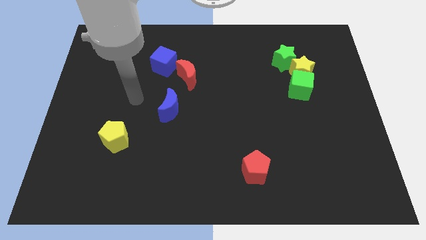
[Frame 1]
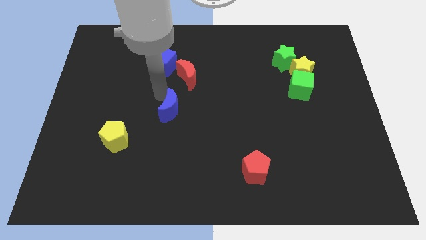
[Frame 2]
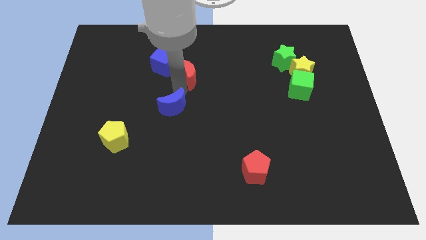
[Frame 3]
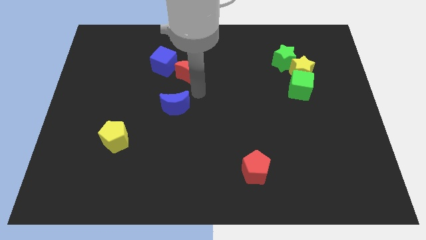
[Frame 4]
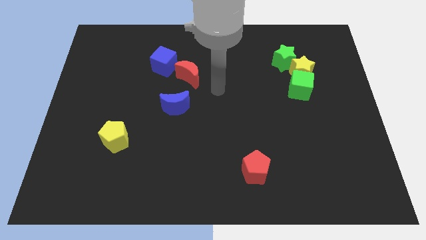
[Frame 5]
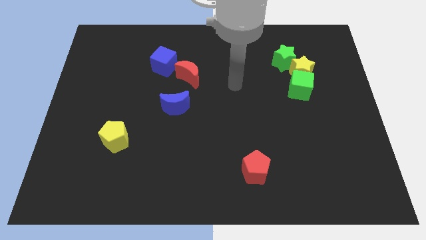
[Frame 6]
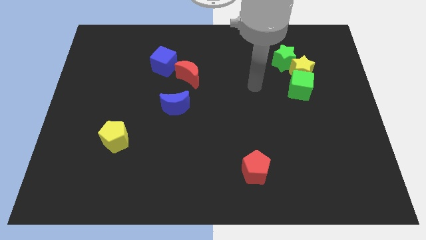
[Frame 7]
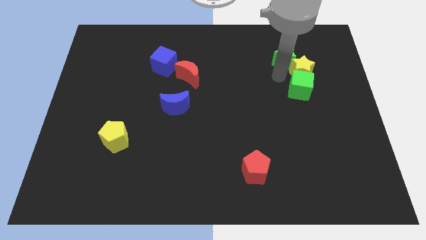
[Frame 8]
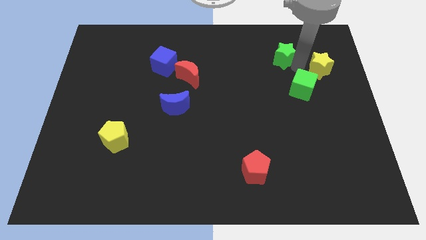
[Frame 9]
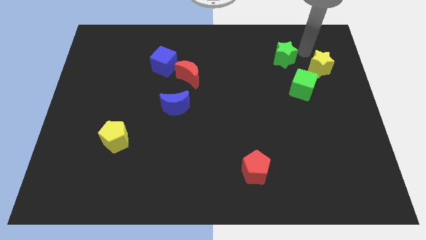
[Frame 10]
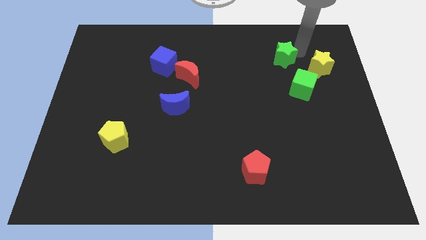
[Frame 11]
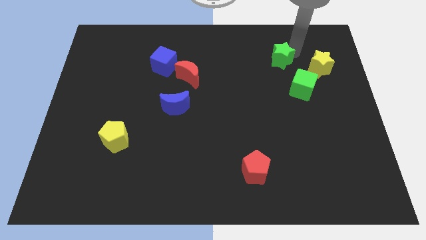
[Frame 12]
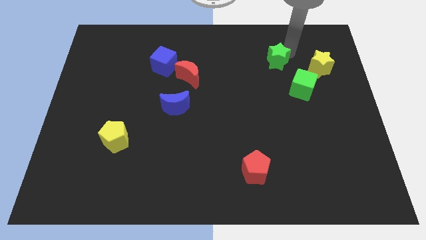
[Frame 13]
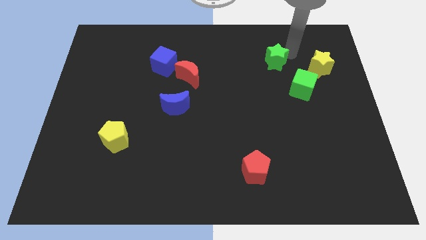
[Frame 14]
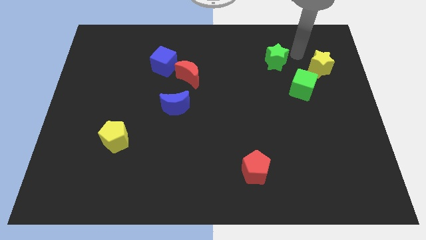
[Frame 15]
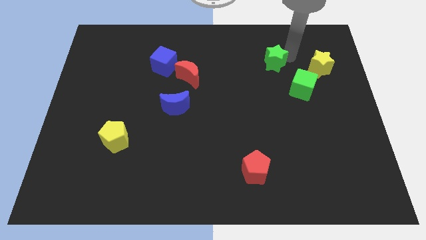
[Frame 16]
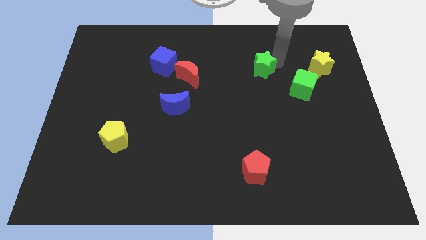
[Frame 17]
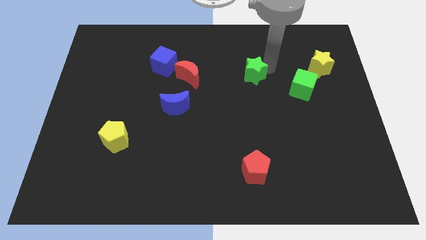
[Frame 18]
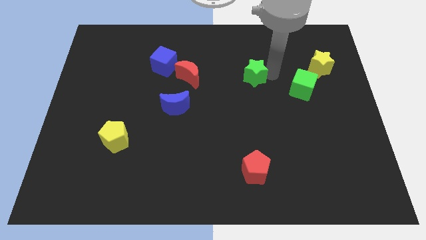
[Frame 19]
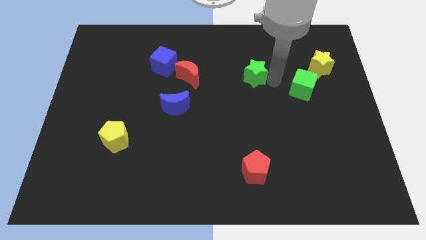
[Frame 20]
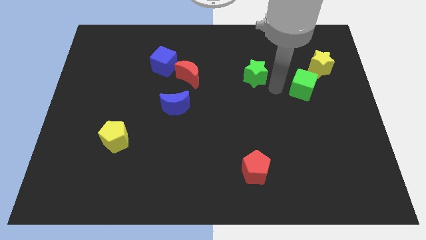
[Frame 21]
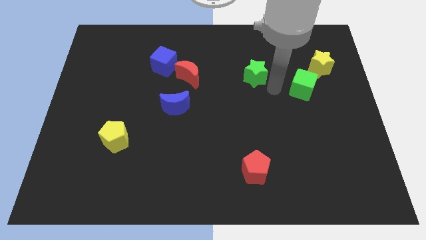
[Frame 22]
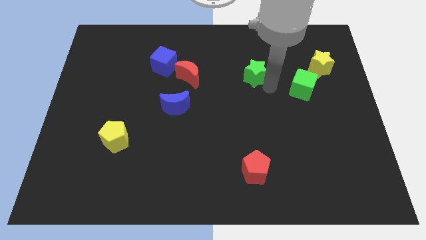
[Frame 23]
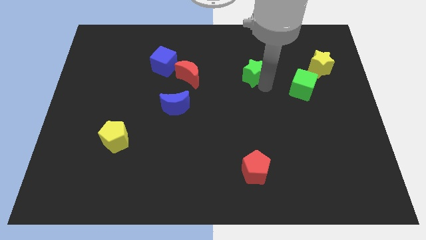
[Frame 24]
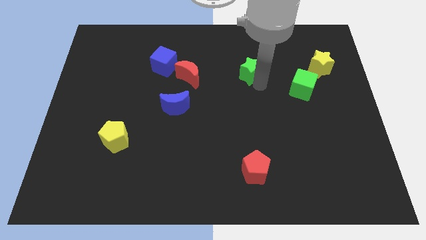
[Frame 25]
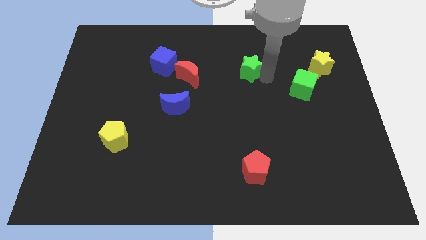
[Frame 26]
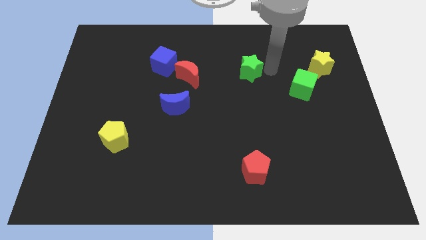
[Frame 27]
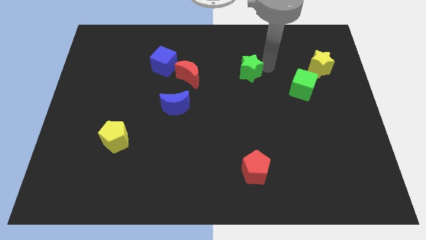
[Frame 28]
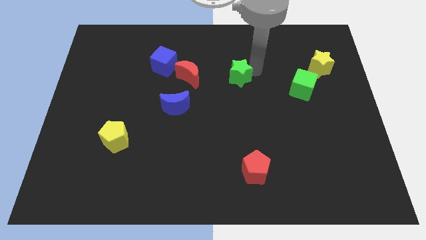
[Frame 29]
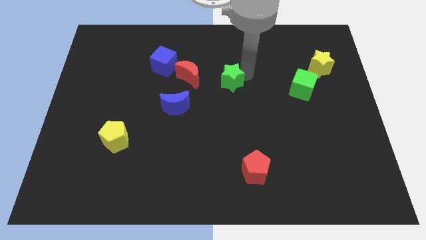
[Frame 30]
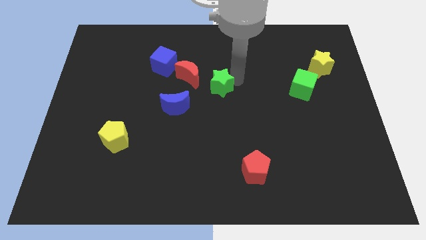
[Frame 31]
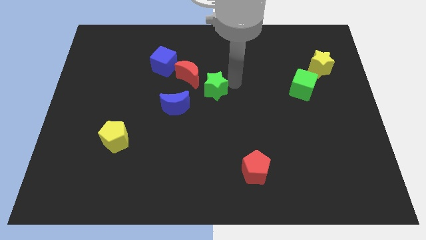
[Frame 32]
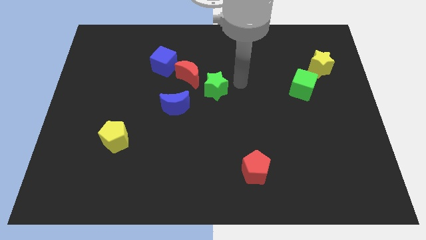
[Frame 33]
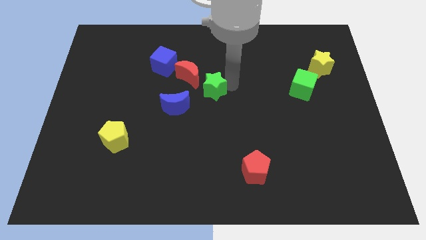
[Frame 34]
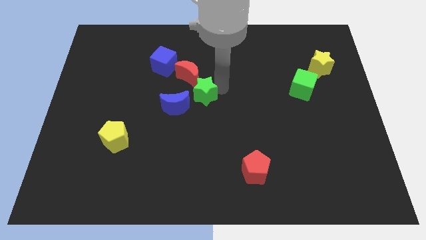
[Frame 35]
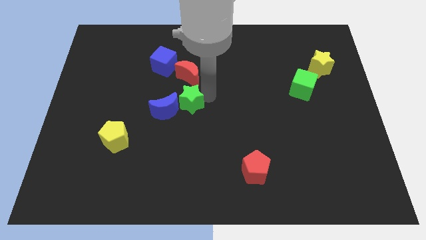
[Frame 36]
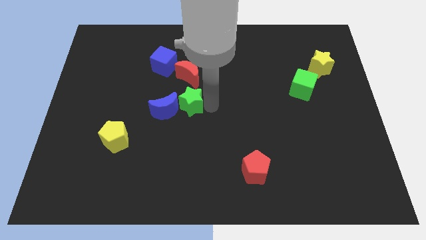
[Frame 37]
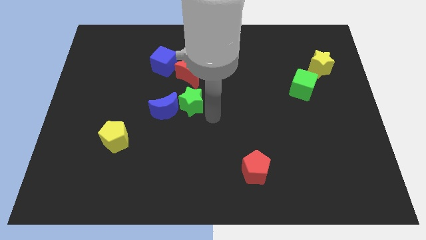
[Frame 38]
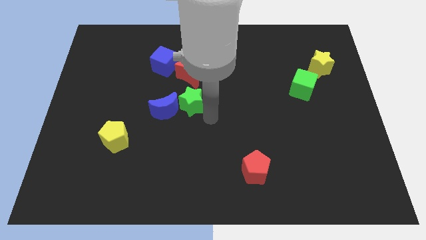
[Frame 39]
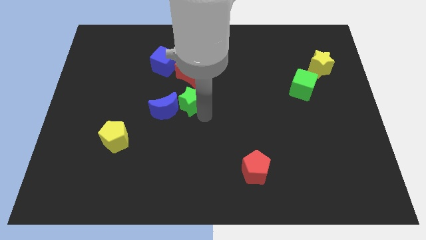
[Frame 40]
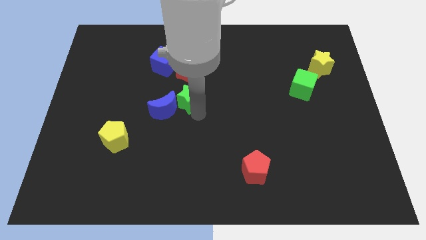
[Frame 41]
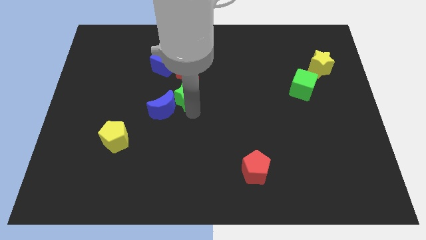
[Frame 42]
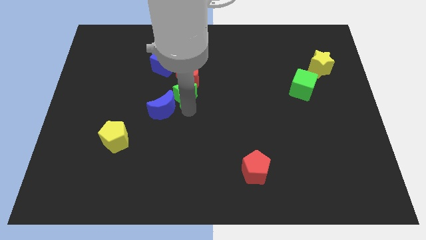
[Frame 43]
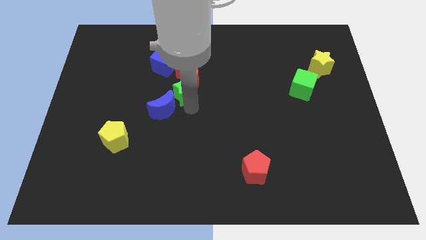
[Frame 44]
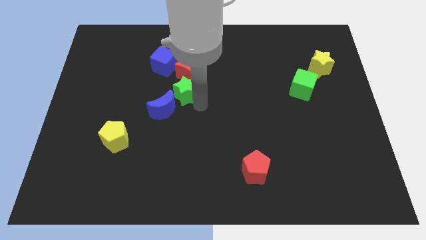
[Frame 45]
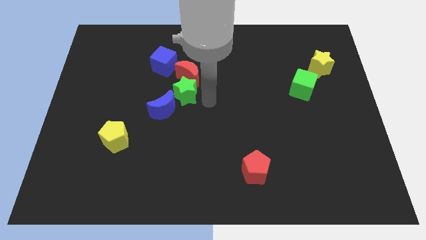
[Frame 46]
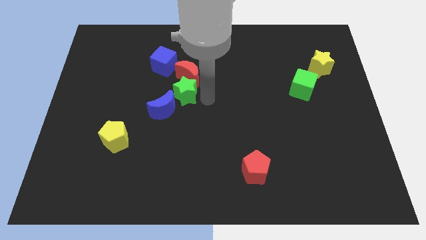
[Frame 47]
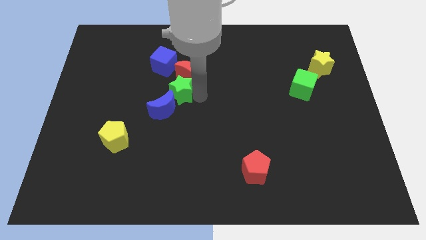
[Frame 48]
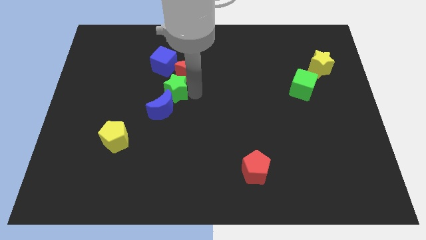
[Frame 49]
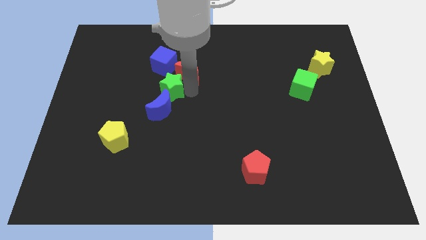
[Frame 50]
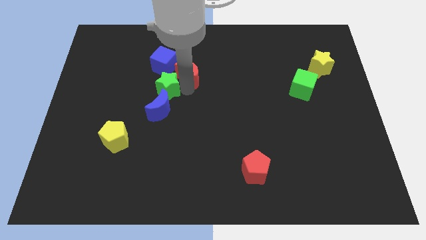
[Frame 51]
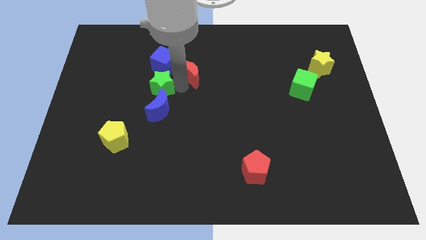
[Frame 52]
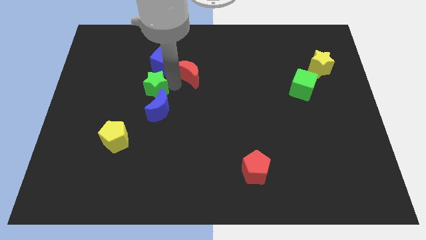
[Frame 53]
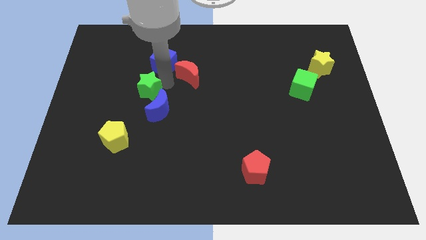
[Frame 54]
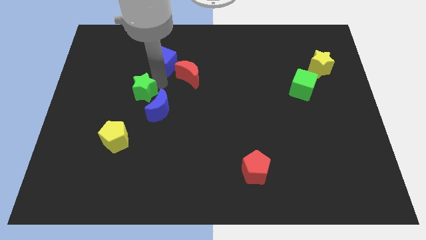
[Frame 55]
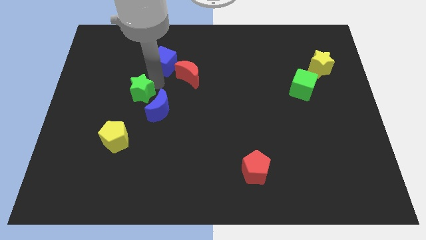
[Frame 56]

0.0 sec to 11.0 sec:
push the green star to the top of the yellow pentagon
